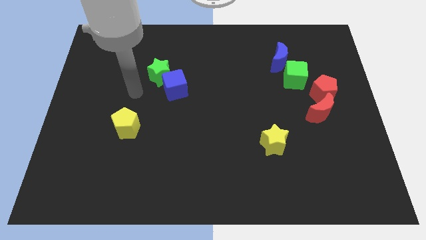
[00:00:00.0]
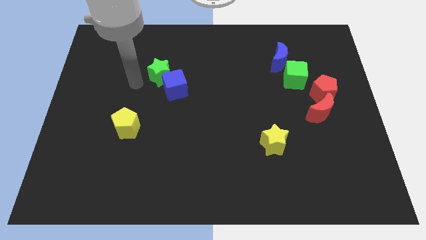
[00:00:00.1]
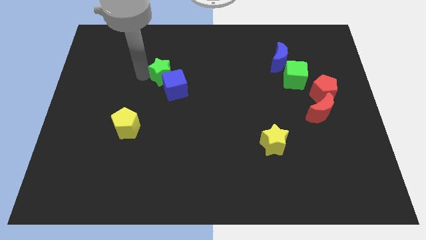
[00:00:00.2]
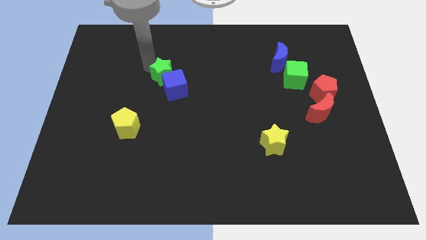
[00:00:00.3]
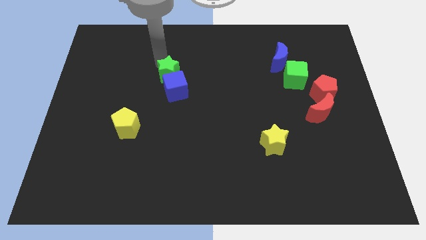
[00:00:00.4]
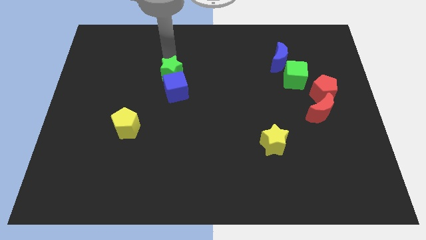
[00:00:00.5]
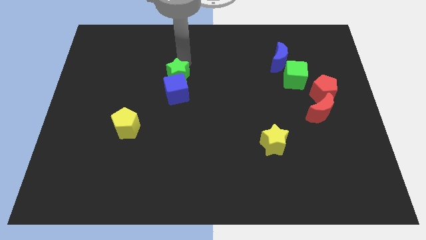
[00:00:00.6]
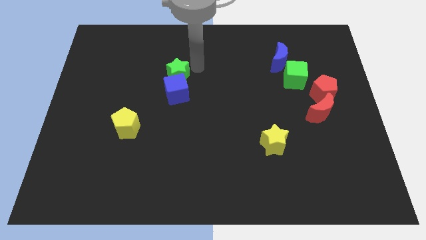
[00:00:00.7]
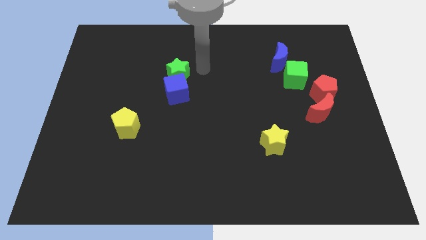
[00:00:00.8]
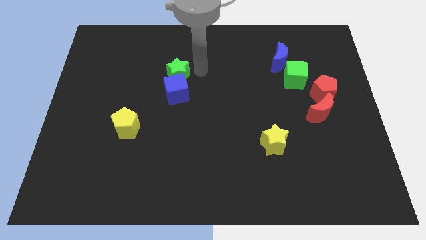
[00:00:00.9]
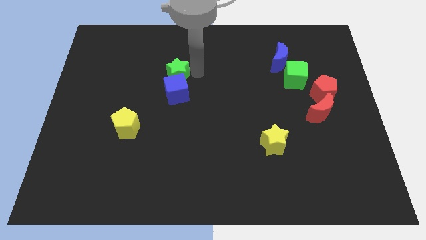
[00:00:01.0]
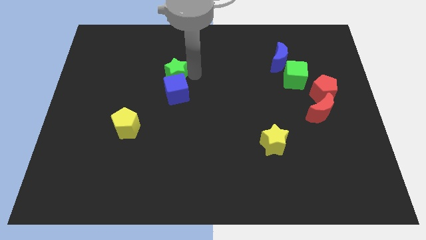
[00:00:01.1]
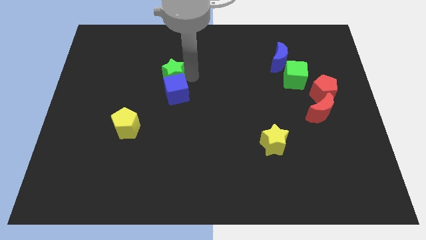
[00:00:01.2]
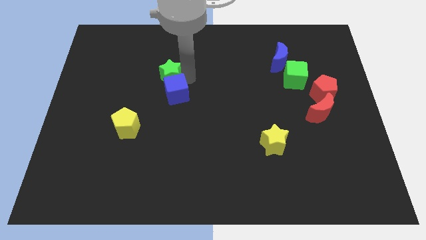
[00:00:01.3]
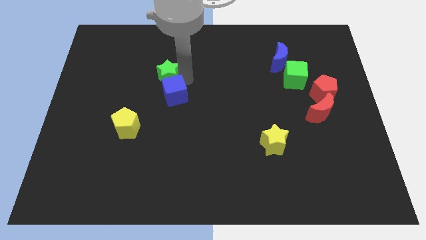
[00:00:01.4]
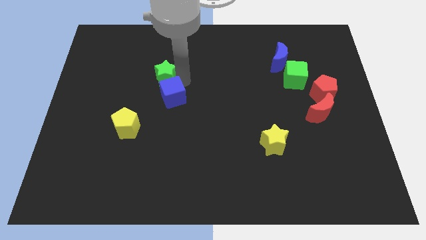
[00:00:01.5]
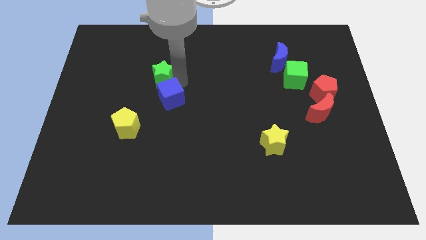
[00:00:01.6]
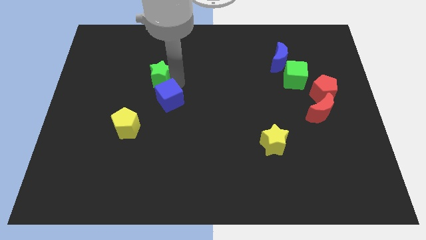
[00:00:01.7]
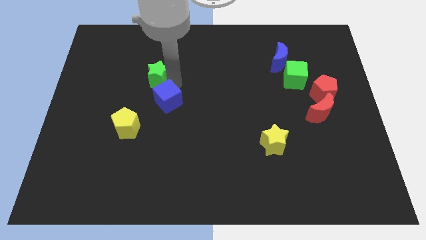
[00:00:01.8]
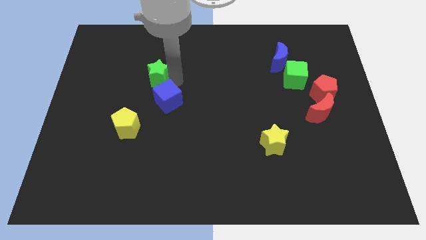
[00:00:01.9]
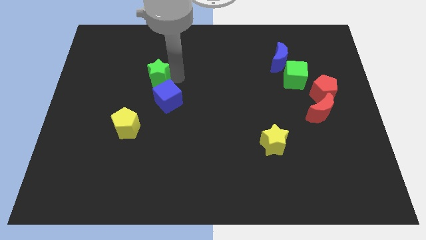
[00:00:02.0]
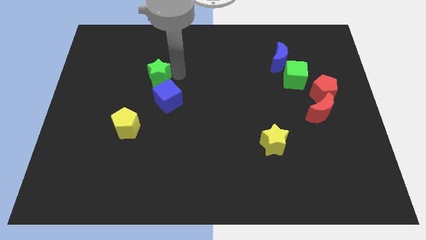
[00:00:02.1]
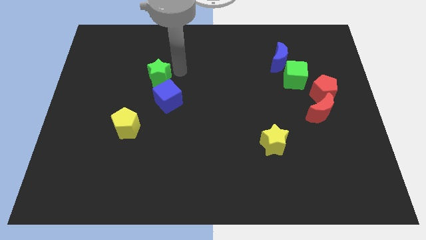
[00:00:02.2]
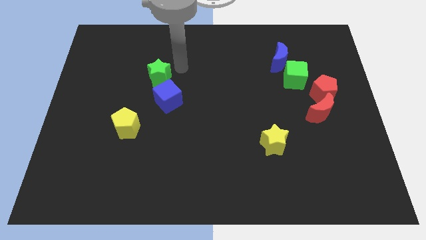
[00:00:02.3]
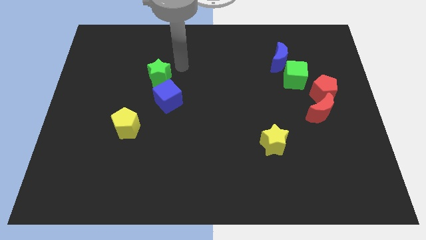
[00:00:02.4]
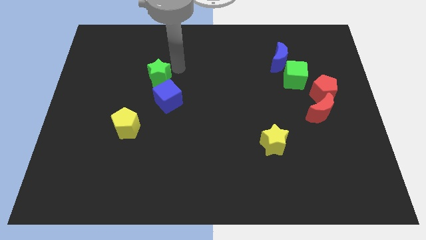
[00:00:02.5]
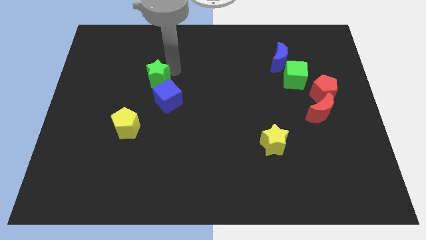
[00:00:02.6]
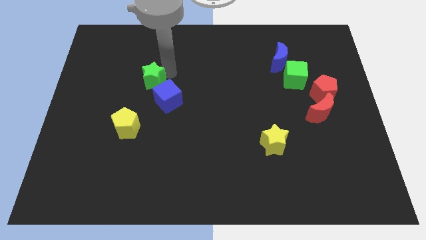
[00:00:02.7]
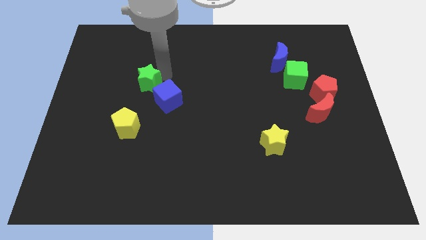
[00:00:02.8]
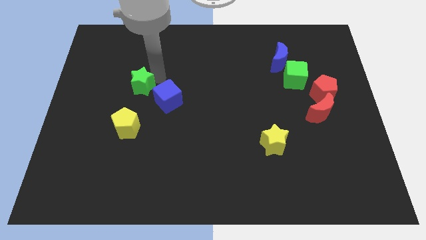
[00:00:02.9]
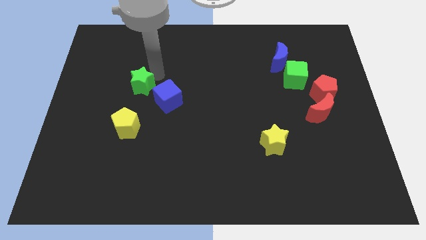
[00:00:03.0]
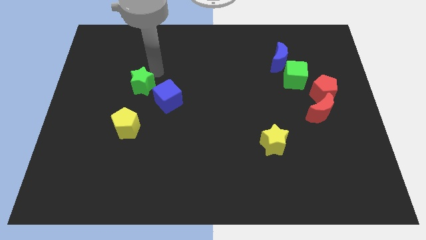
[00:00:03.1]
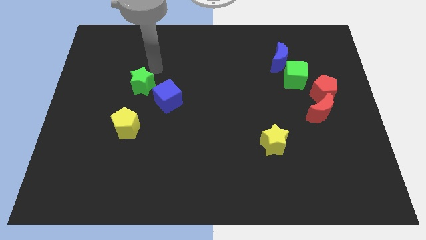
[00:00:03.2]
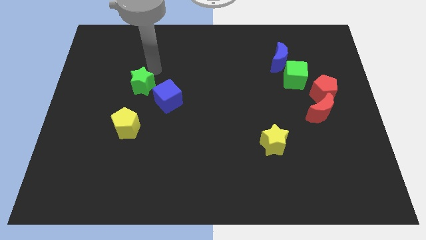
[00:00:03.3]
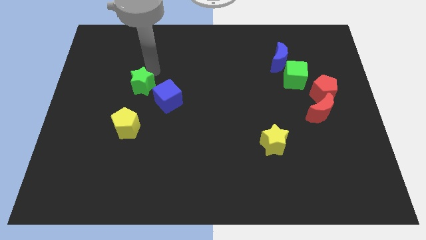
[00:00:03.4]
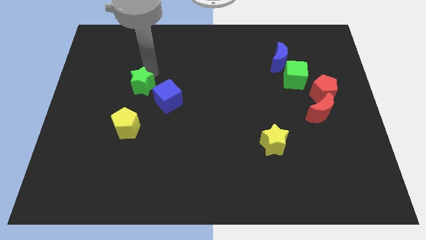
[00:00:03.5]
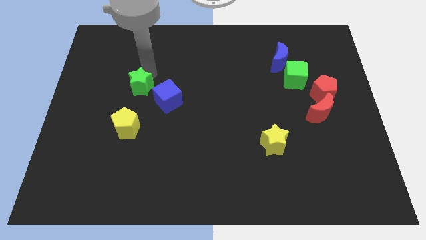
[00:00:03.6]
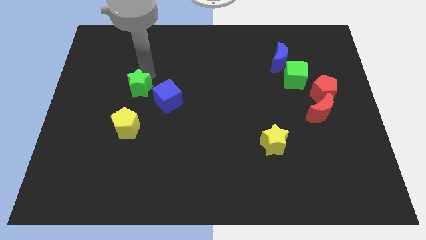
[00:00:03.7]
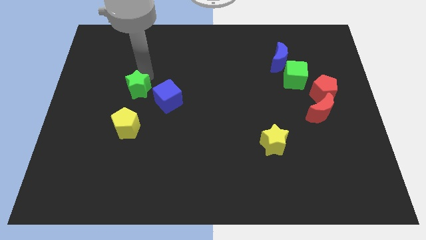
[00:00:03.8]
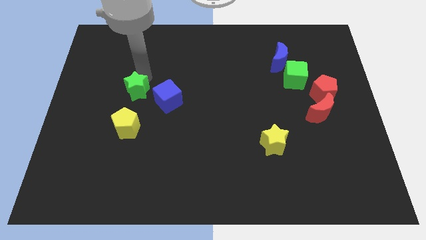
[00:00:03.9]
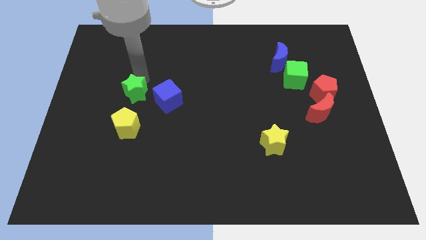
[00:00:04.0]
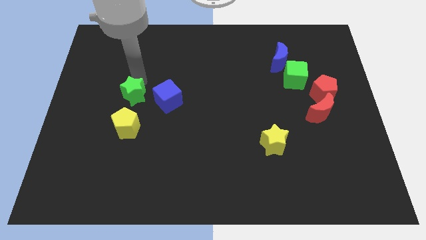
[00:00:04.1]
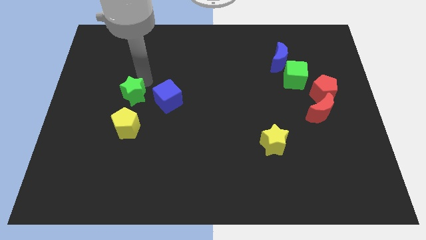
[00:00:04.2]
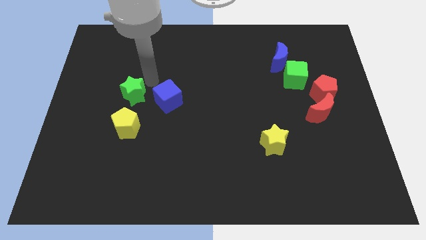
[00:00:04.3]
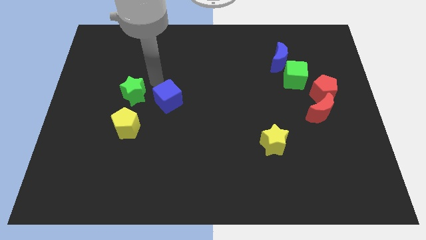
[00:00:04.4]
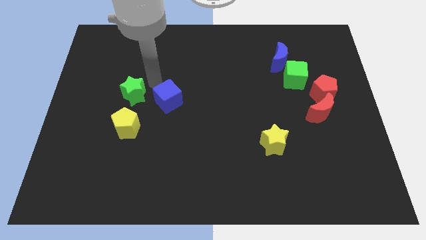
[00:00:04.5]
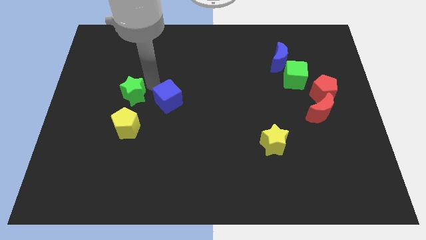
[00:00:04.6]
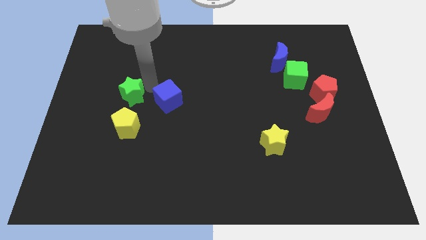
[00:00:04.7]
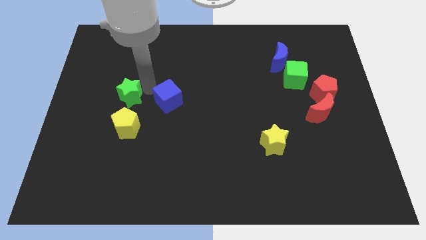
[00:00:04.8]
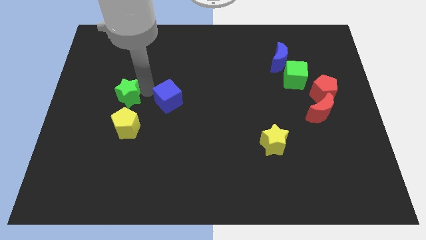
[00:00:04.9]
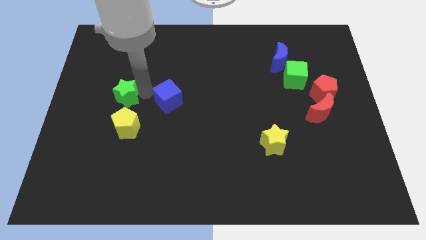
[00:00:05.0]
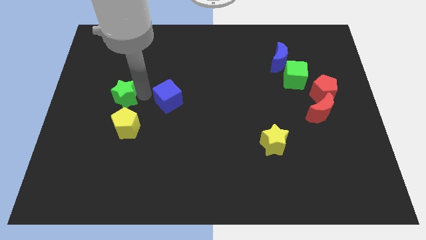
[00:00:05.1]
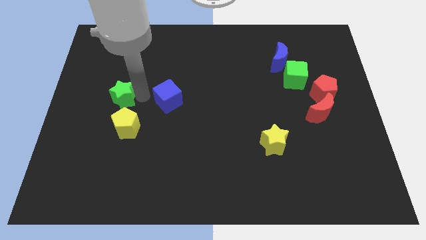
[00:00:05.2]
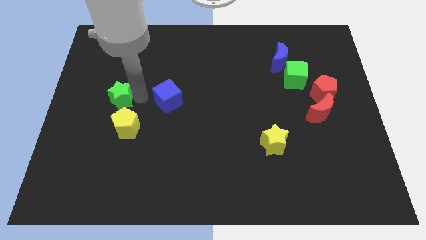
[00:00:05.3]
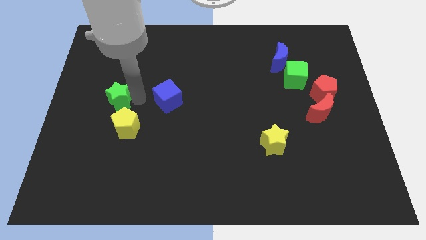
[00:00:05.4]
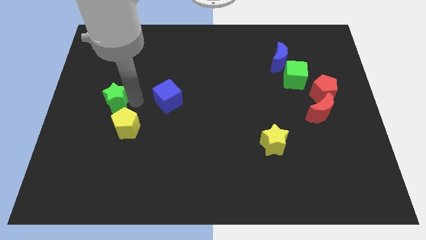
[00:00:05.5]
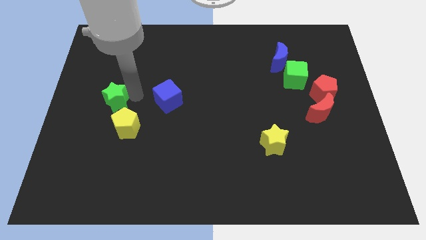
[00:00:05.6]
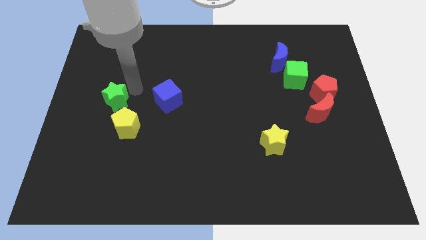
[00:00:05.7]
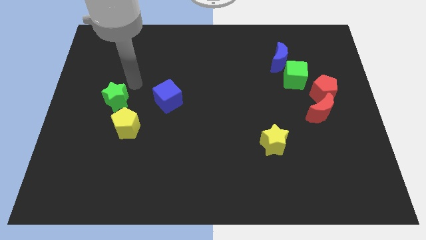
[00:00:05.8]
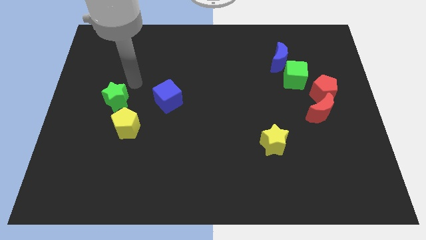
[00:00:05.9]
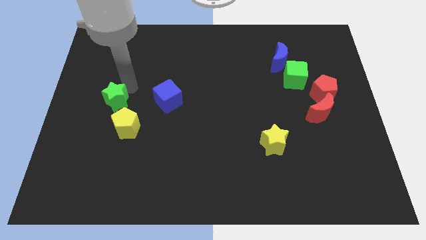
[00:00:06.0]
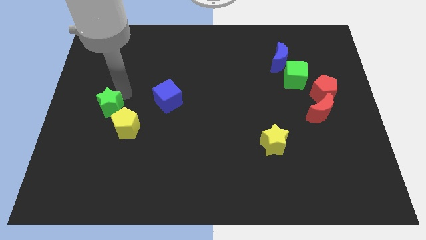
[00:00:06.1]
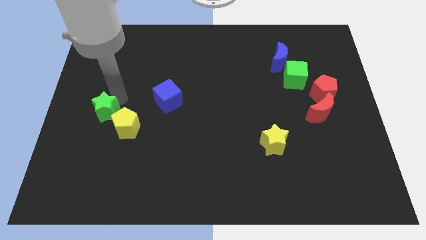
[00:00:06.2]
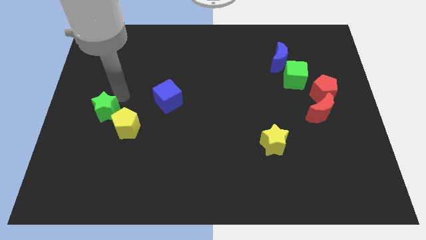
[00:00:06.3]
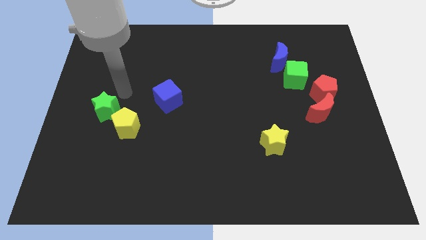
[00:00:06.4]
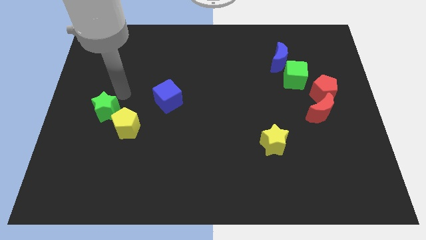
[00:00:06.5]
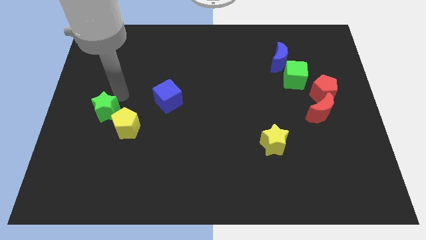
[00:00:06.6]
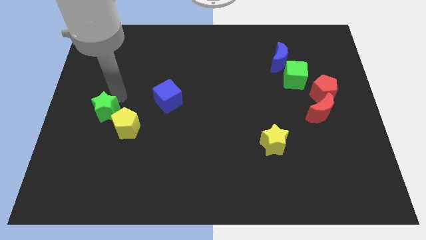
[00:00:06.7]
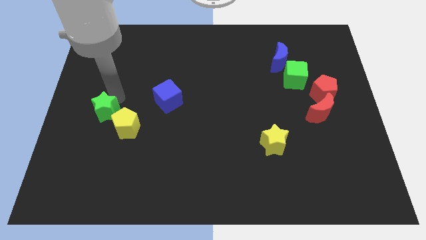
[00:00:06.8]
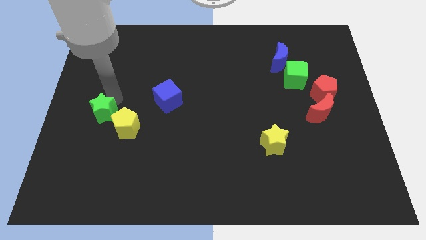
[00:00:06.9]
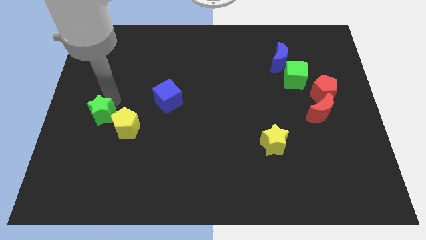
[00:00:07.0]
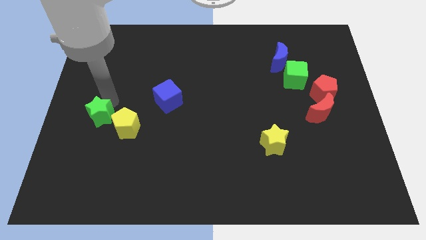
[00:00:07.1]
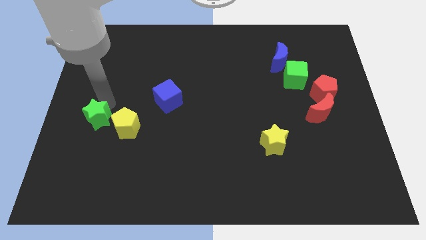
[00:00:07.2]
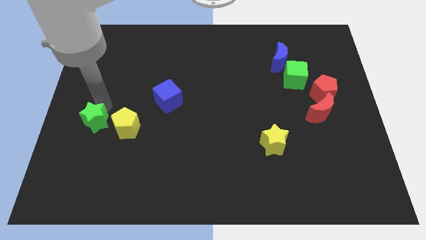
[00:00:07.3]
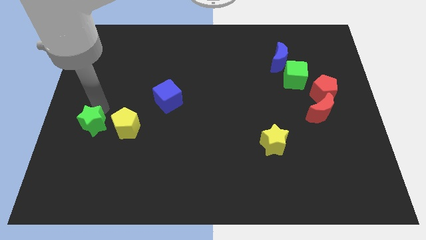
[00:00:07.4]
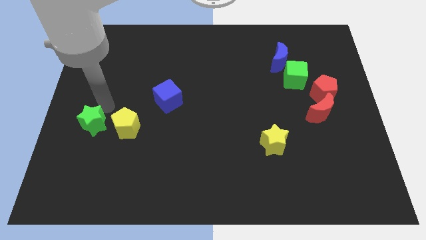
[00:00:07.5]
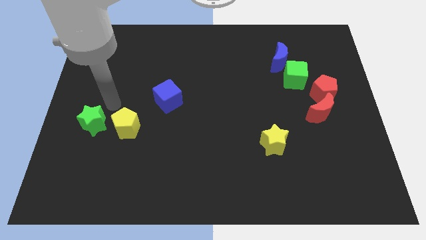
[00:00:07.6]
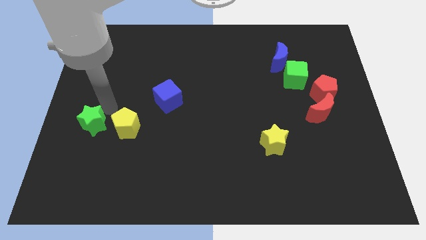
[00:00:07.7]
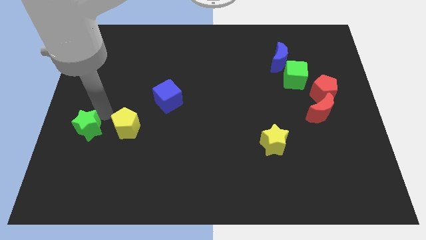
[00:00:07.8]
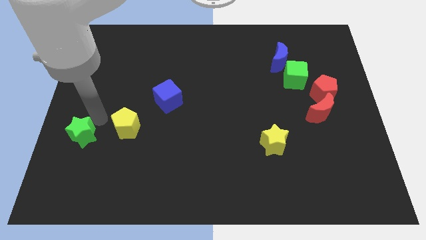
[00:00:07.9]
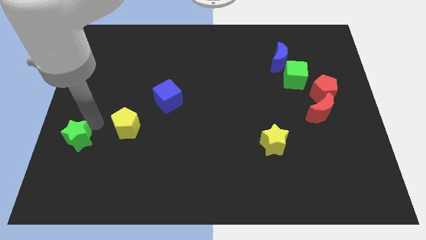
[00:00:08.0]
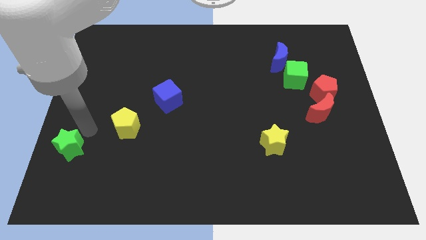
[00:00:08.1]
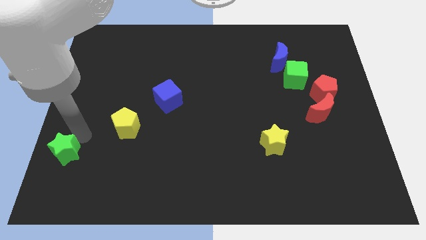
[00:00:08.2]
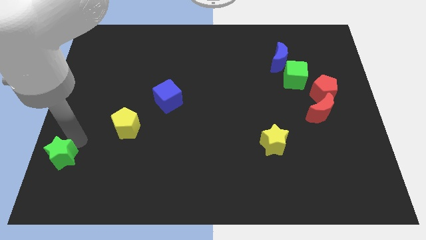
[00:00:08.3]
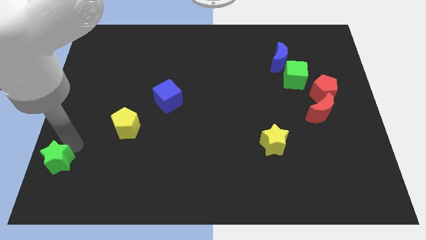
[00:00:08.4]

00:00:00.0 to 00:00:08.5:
move the green star to the bottom left
